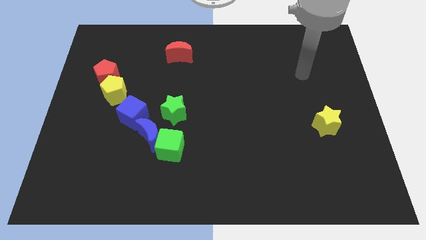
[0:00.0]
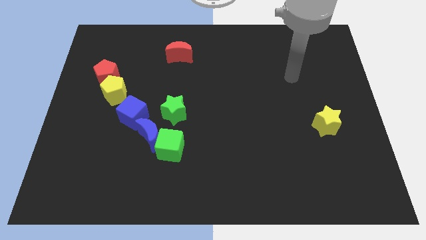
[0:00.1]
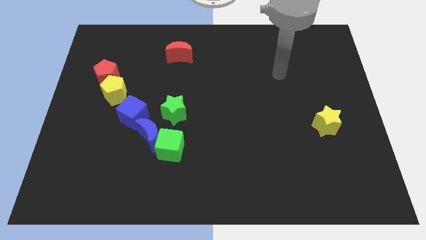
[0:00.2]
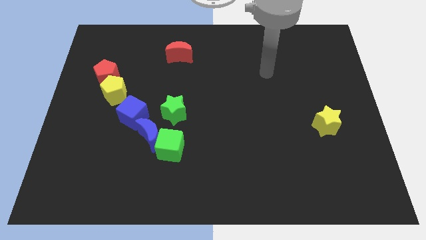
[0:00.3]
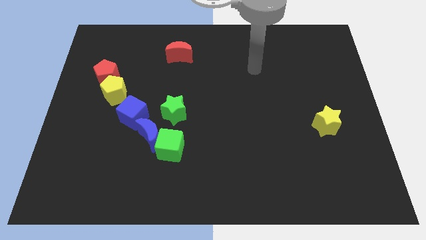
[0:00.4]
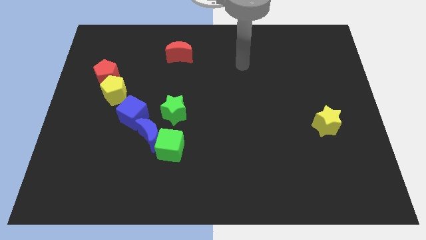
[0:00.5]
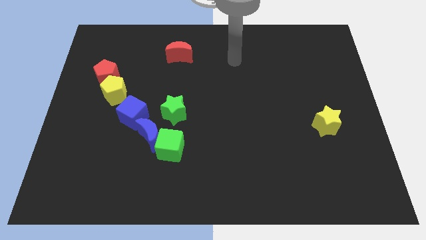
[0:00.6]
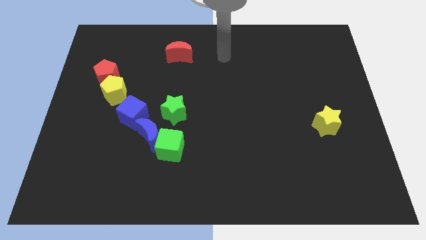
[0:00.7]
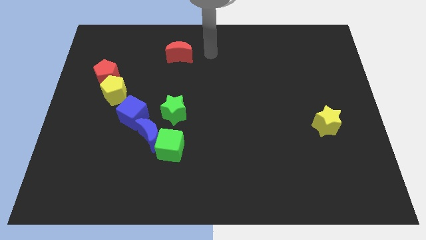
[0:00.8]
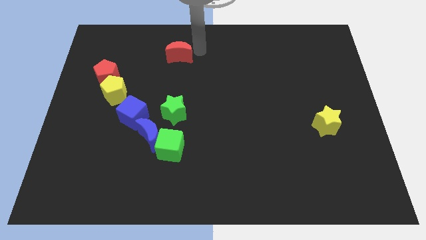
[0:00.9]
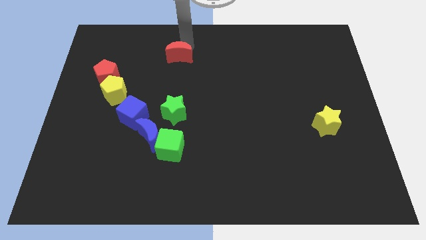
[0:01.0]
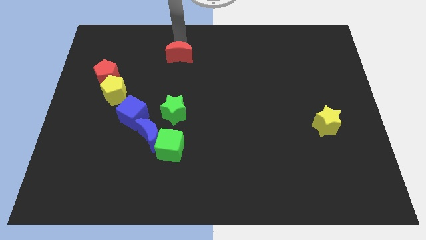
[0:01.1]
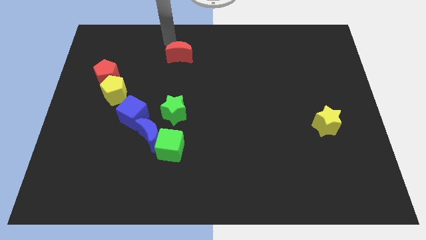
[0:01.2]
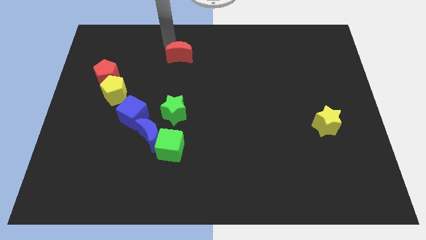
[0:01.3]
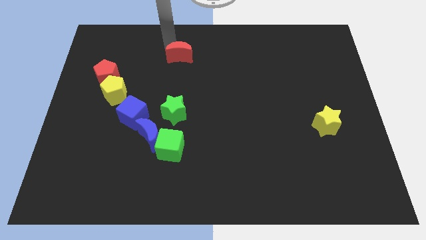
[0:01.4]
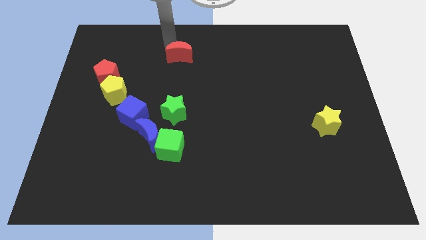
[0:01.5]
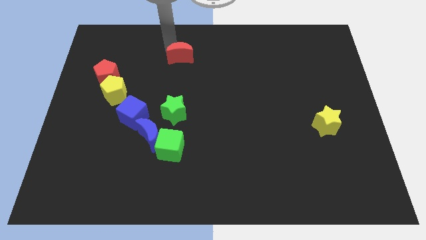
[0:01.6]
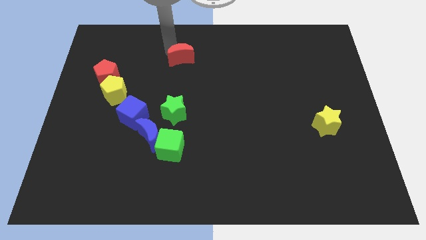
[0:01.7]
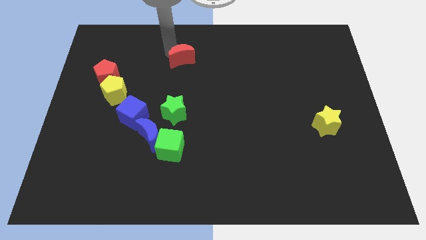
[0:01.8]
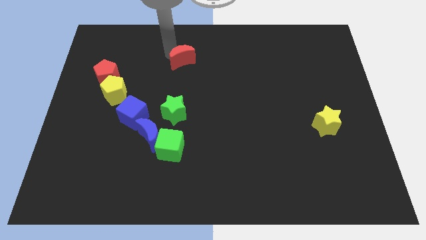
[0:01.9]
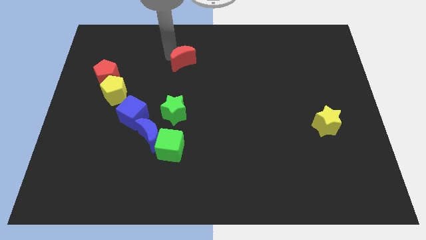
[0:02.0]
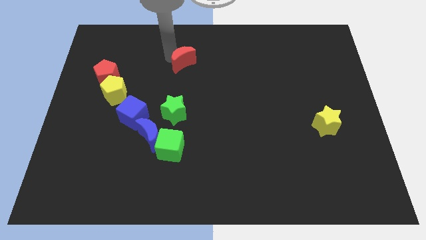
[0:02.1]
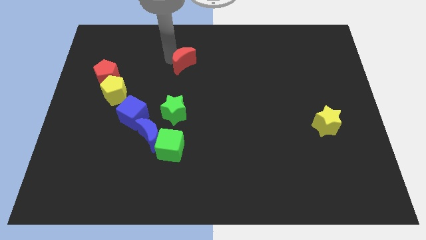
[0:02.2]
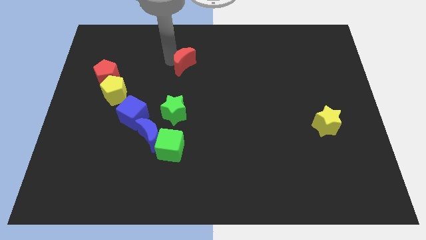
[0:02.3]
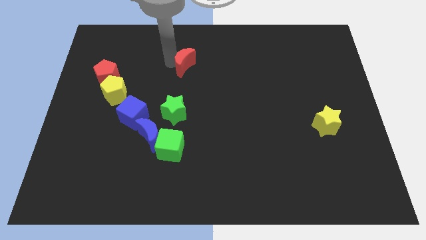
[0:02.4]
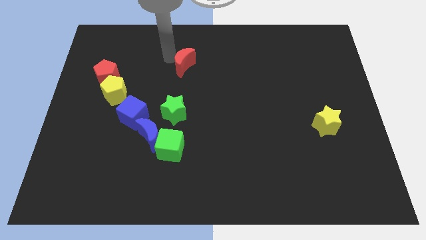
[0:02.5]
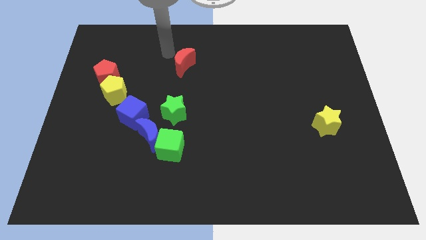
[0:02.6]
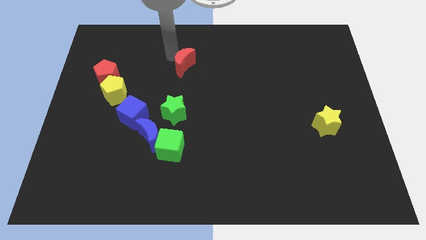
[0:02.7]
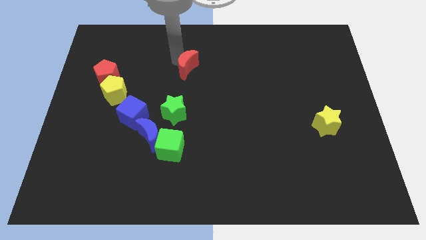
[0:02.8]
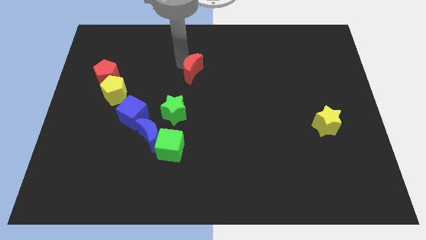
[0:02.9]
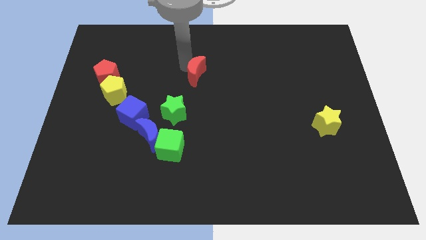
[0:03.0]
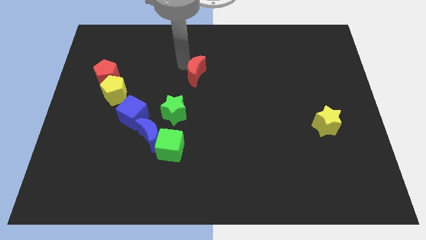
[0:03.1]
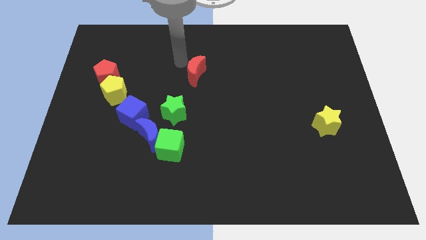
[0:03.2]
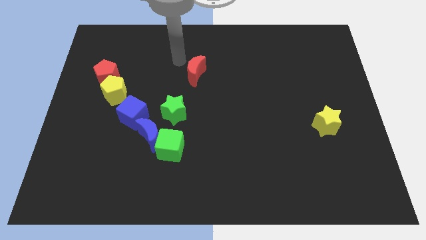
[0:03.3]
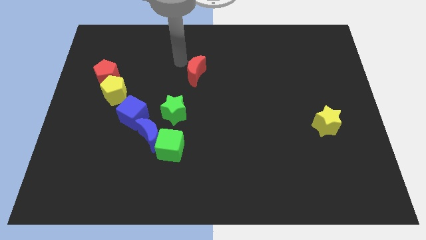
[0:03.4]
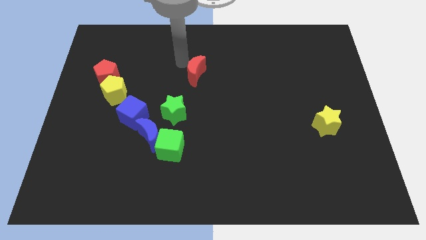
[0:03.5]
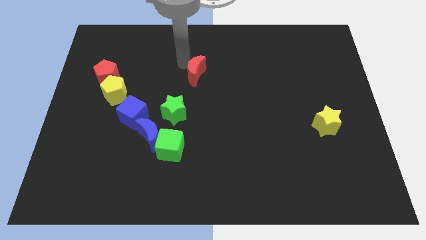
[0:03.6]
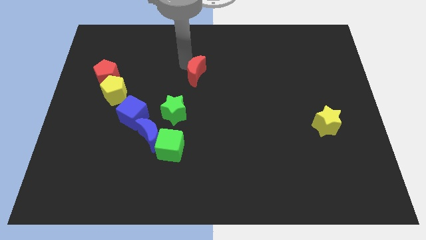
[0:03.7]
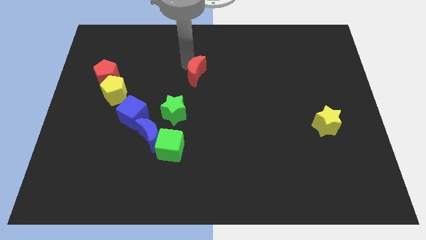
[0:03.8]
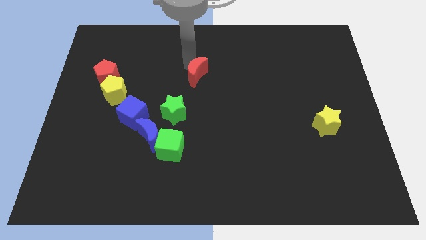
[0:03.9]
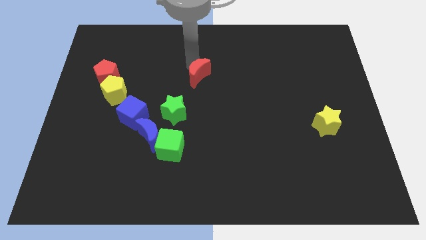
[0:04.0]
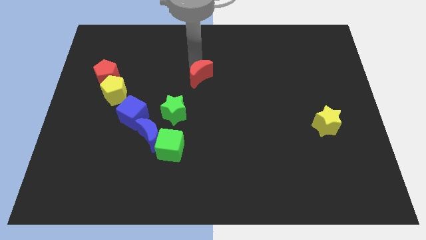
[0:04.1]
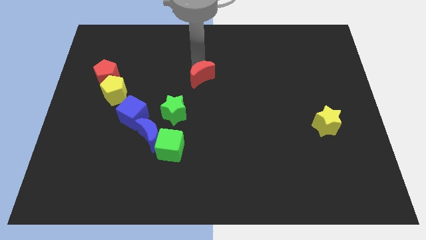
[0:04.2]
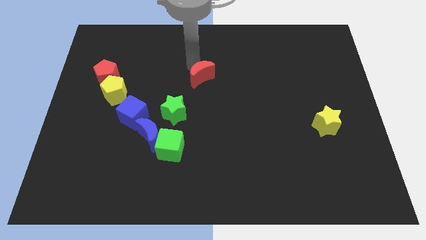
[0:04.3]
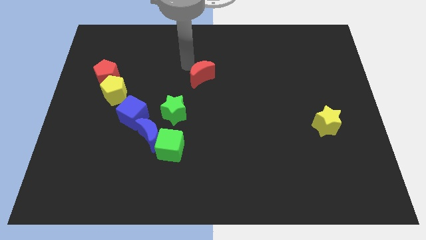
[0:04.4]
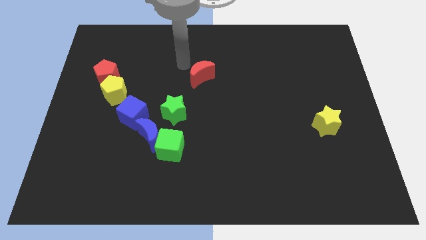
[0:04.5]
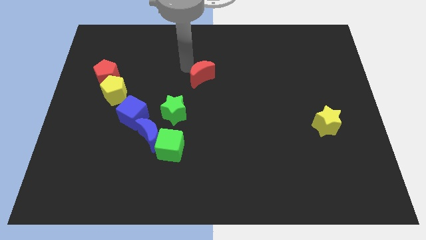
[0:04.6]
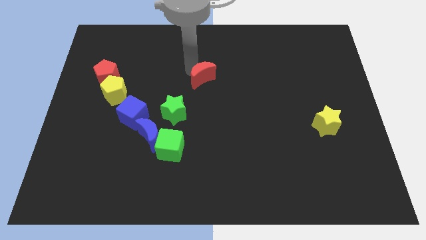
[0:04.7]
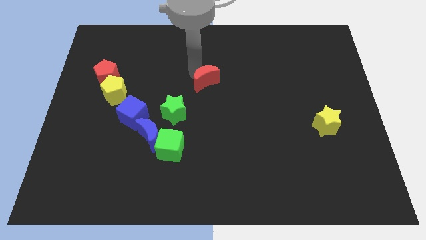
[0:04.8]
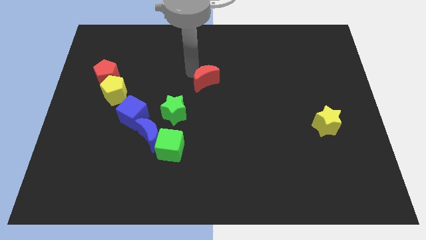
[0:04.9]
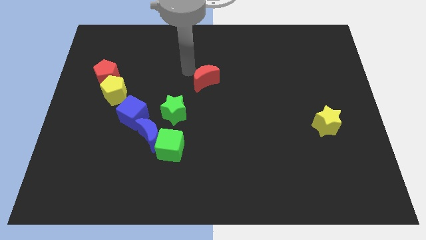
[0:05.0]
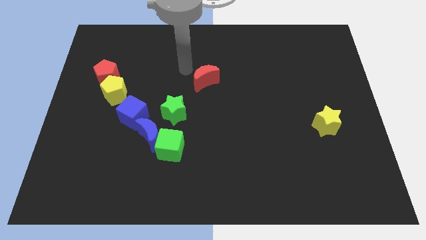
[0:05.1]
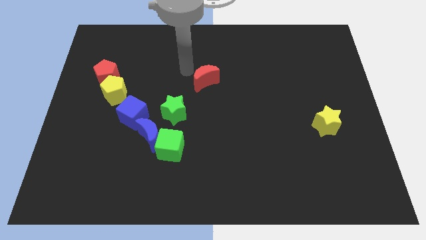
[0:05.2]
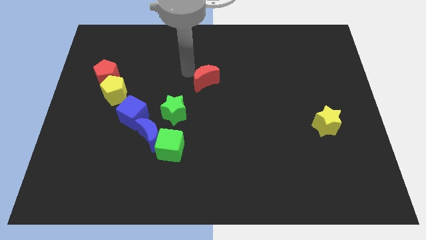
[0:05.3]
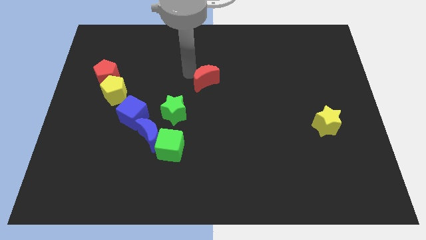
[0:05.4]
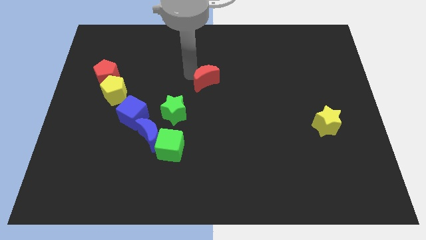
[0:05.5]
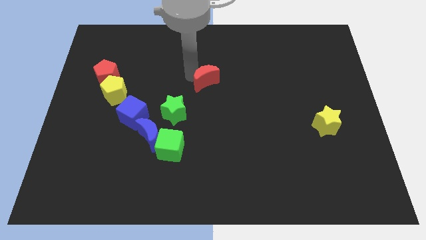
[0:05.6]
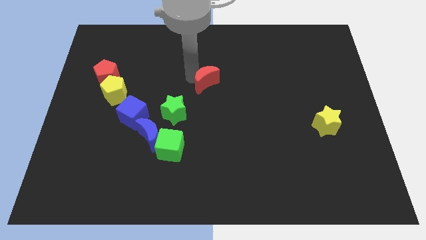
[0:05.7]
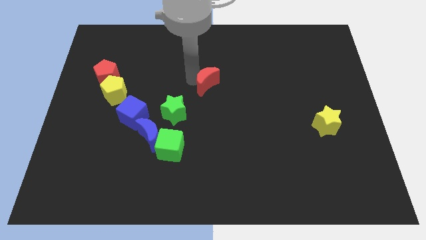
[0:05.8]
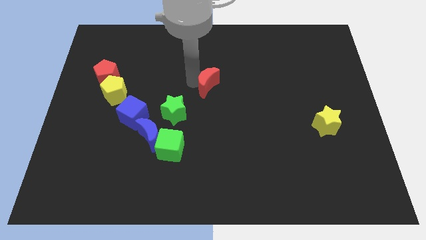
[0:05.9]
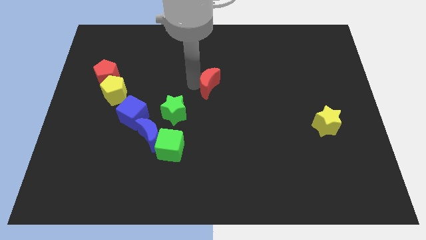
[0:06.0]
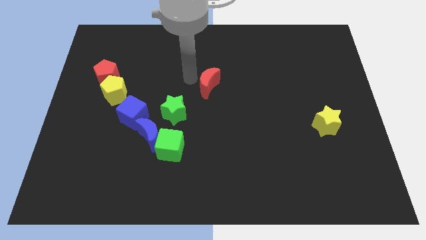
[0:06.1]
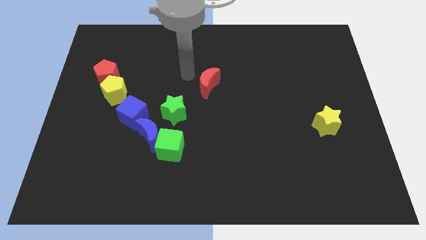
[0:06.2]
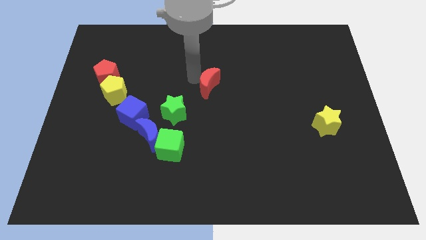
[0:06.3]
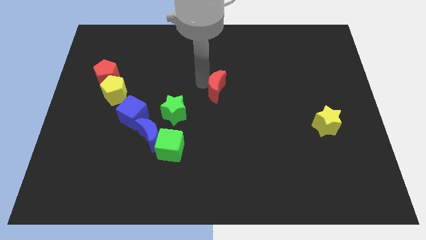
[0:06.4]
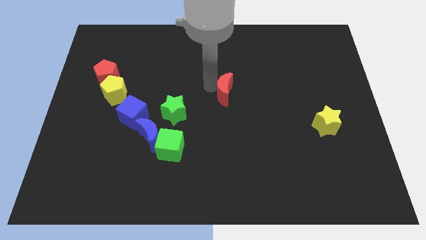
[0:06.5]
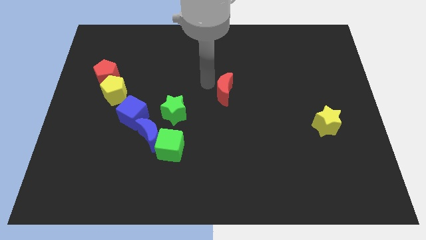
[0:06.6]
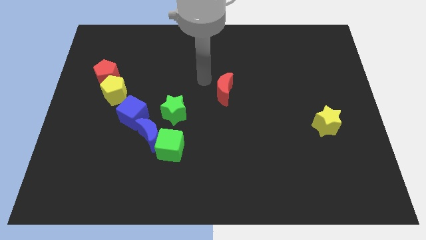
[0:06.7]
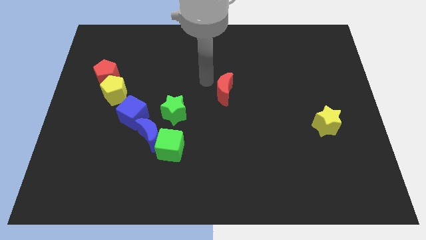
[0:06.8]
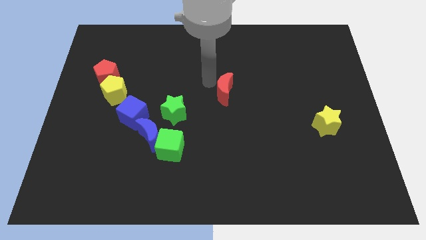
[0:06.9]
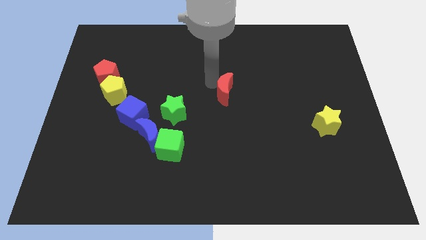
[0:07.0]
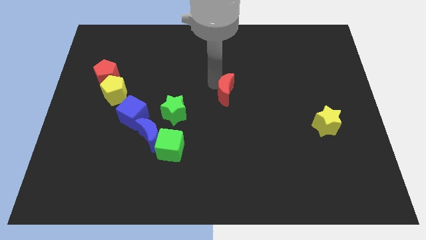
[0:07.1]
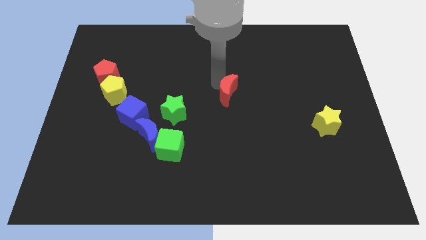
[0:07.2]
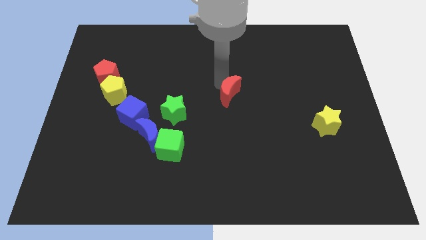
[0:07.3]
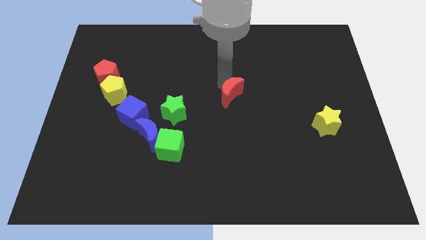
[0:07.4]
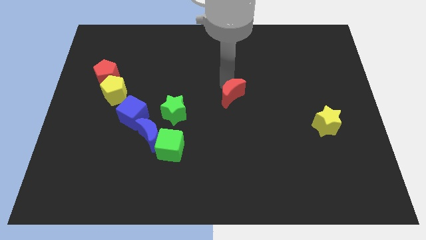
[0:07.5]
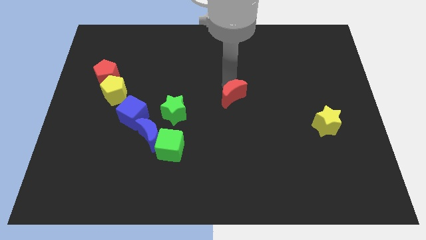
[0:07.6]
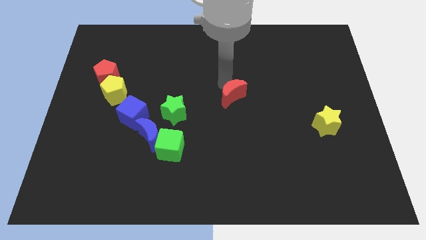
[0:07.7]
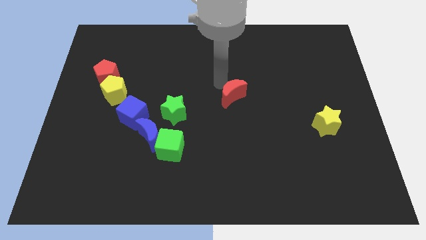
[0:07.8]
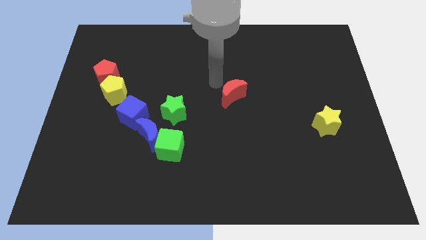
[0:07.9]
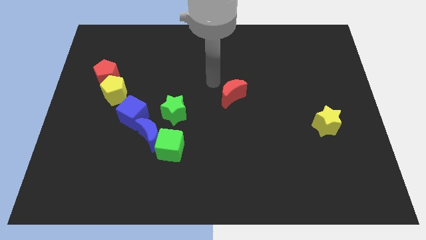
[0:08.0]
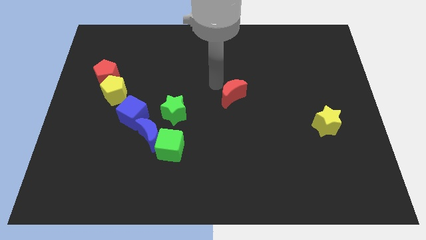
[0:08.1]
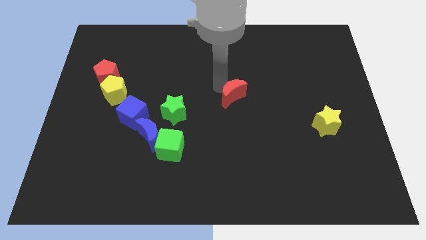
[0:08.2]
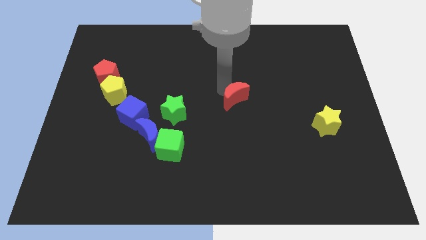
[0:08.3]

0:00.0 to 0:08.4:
move the red moon diagonally downwards and right
